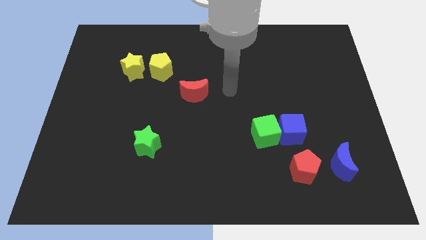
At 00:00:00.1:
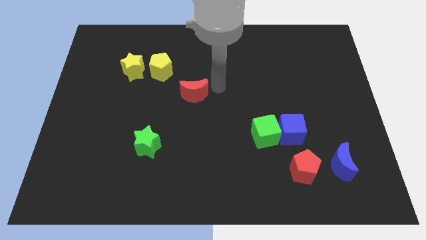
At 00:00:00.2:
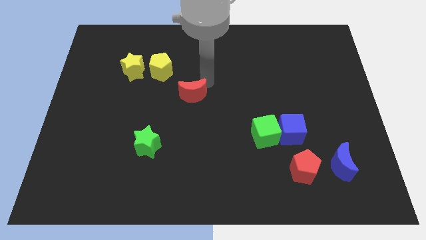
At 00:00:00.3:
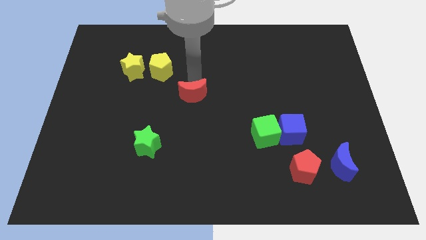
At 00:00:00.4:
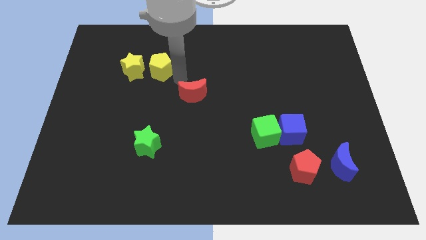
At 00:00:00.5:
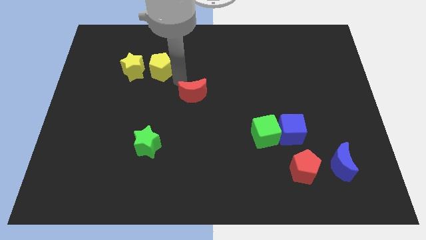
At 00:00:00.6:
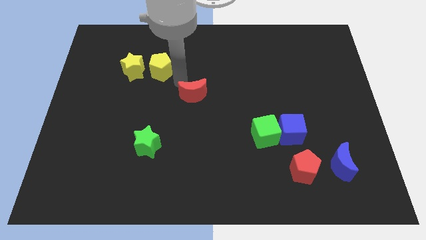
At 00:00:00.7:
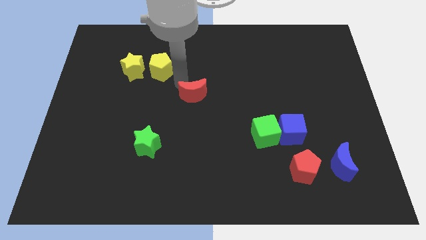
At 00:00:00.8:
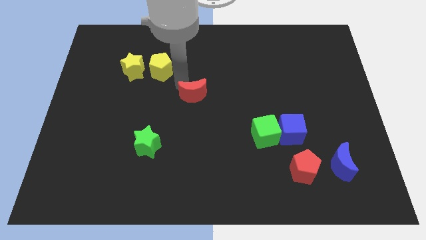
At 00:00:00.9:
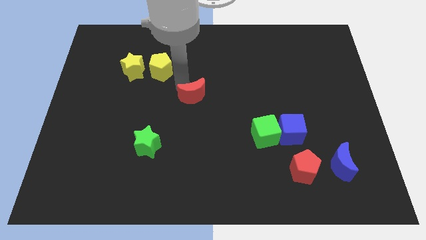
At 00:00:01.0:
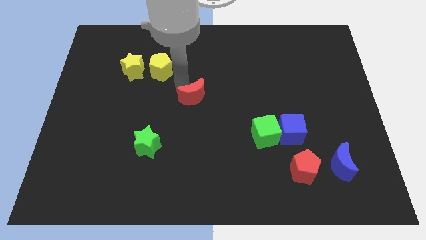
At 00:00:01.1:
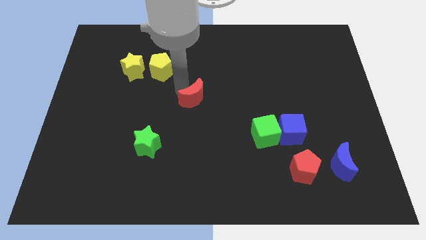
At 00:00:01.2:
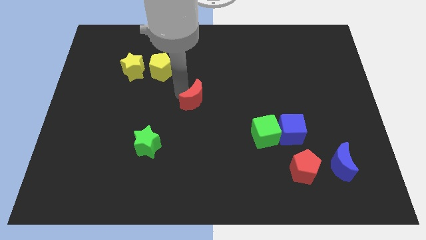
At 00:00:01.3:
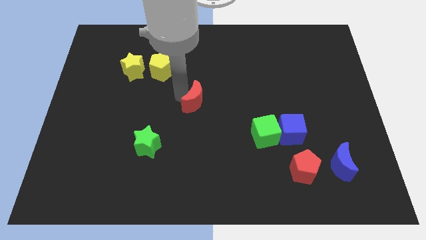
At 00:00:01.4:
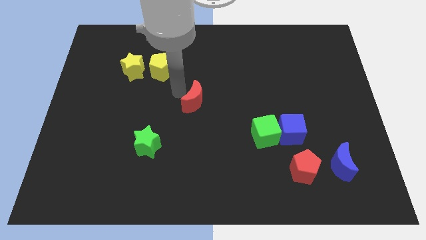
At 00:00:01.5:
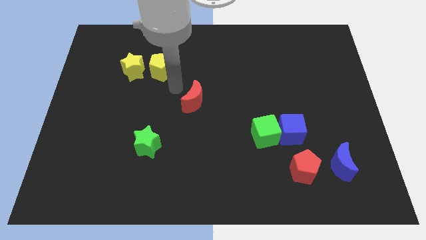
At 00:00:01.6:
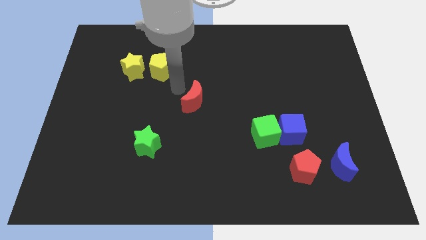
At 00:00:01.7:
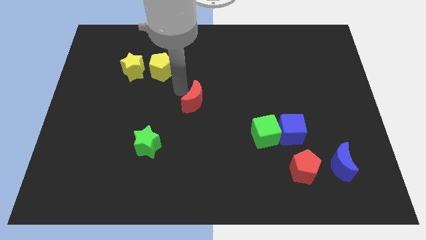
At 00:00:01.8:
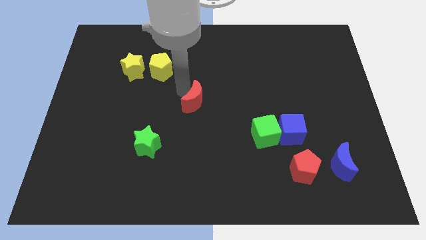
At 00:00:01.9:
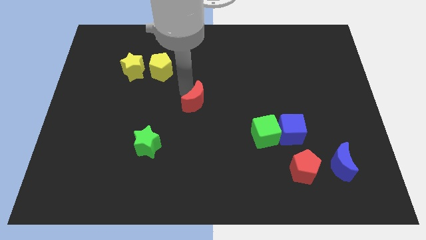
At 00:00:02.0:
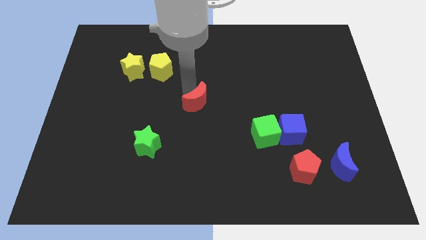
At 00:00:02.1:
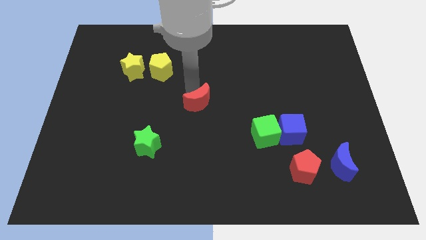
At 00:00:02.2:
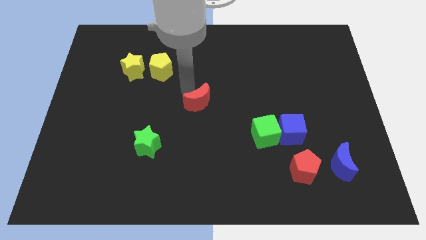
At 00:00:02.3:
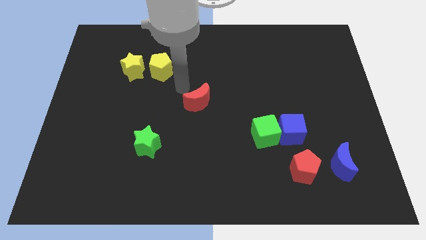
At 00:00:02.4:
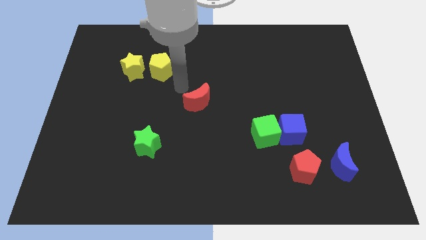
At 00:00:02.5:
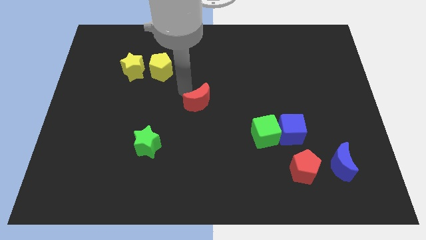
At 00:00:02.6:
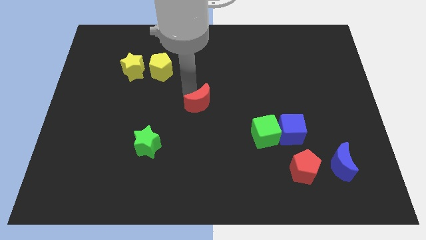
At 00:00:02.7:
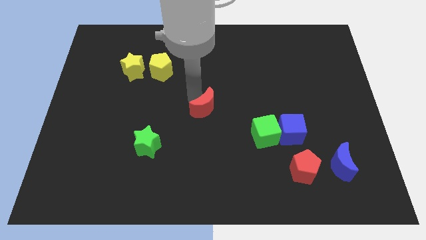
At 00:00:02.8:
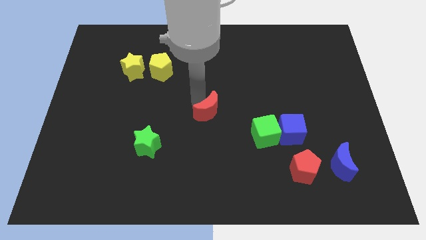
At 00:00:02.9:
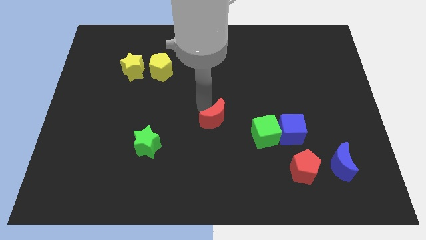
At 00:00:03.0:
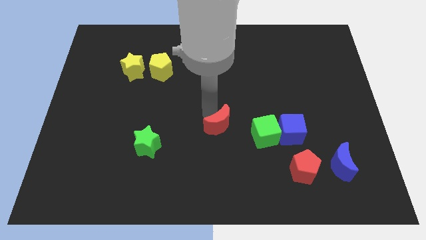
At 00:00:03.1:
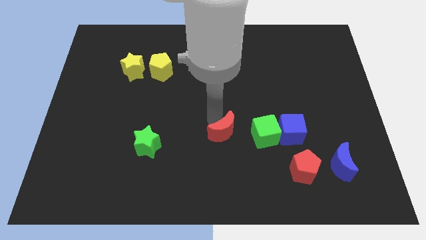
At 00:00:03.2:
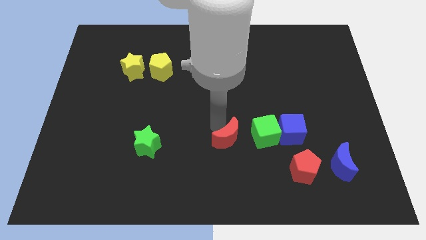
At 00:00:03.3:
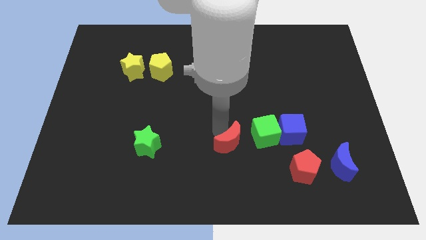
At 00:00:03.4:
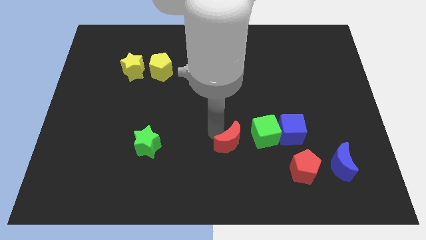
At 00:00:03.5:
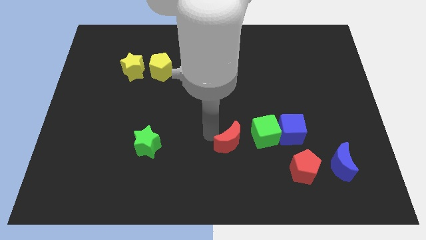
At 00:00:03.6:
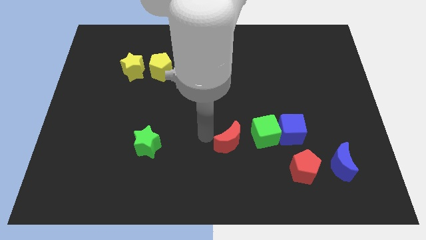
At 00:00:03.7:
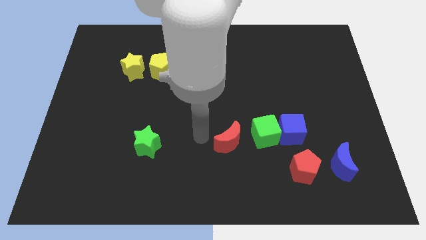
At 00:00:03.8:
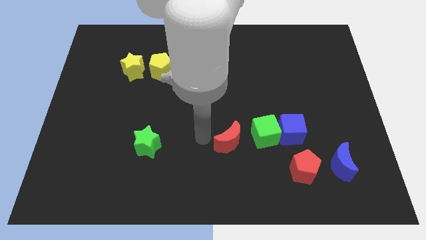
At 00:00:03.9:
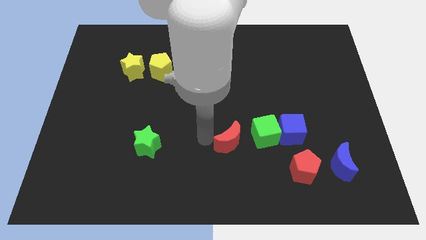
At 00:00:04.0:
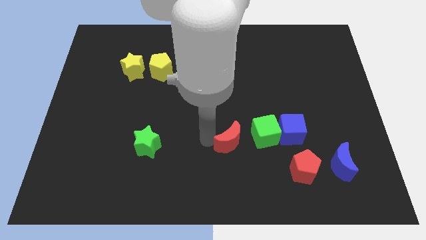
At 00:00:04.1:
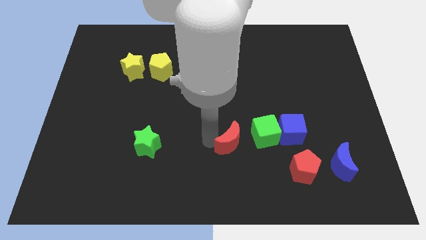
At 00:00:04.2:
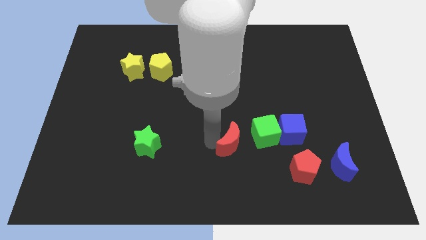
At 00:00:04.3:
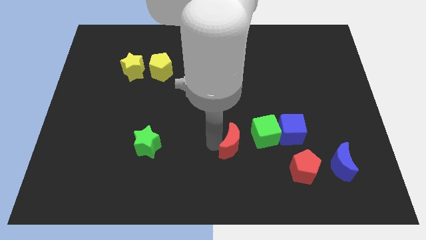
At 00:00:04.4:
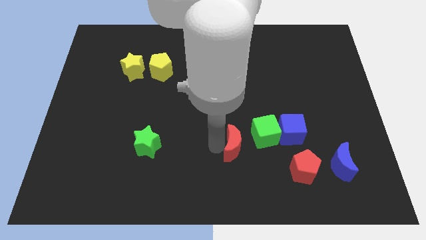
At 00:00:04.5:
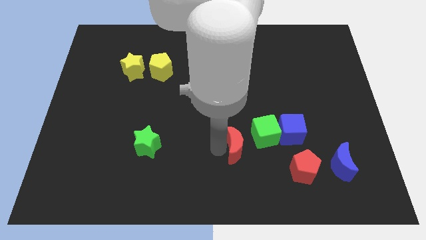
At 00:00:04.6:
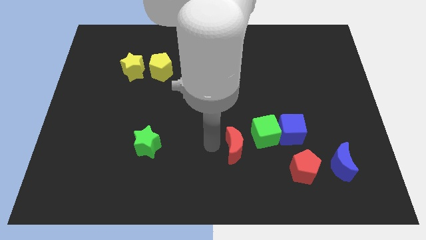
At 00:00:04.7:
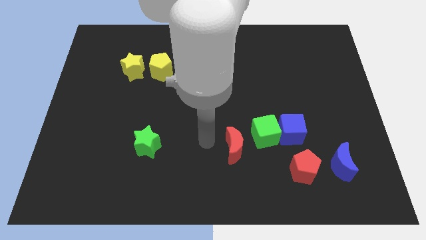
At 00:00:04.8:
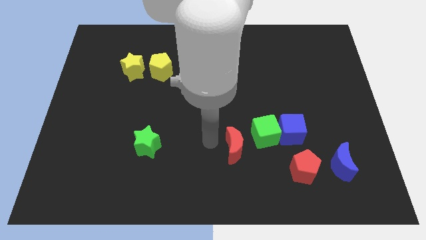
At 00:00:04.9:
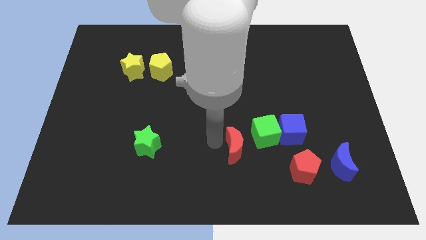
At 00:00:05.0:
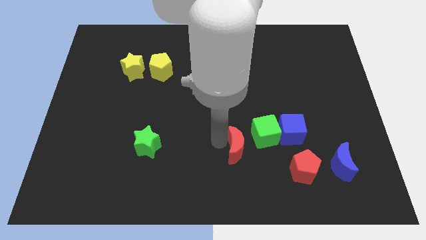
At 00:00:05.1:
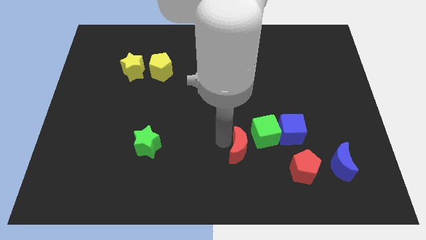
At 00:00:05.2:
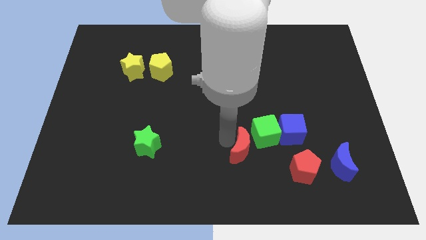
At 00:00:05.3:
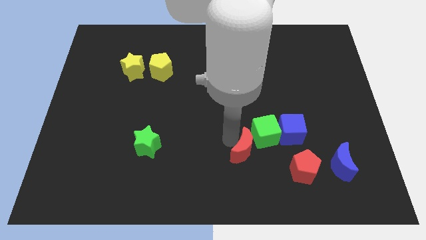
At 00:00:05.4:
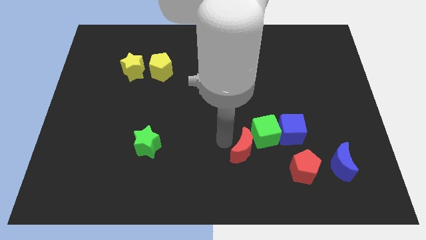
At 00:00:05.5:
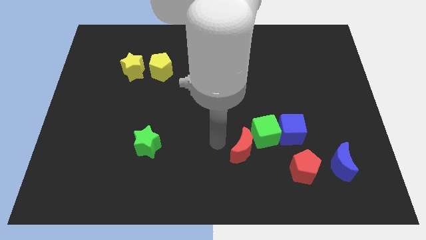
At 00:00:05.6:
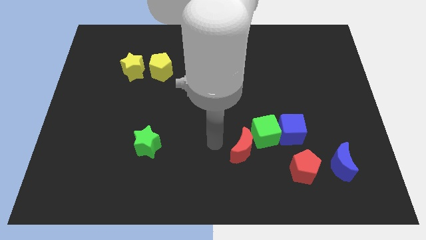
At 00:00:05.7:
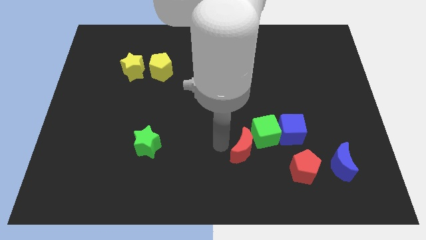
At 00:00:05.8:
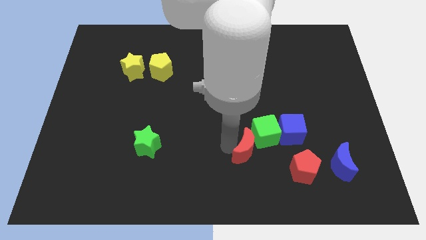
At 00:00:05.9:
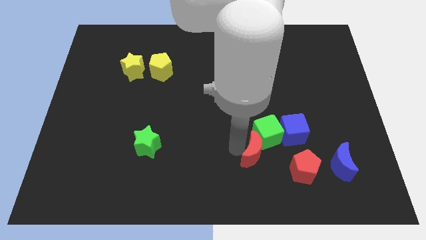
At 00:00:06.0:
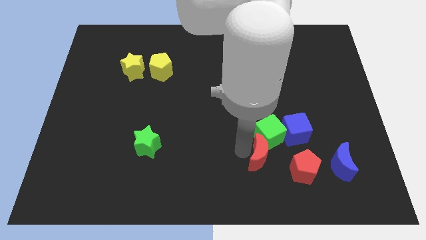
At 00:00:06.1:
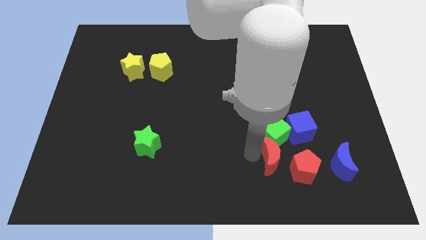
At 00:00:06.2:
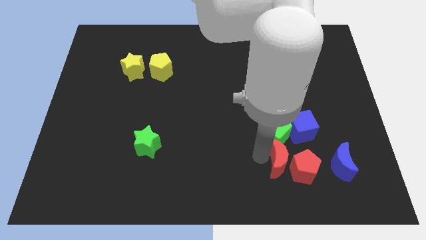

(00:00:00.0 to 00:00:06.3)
slide the red moon close to the red pentagon

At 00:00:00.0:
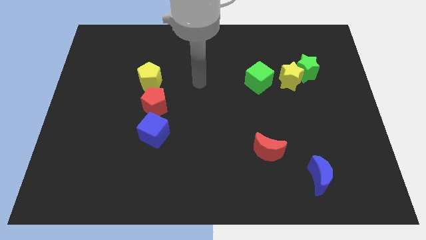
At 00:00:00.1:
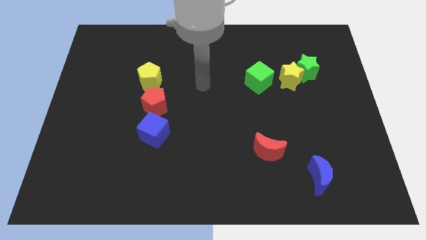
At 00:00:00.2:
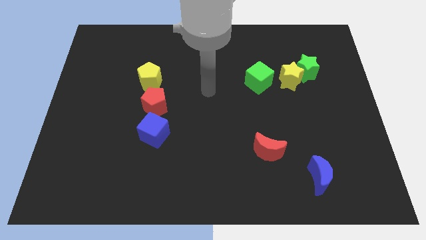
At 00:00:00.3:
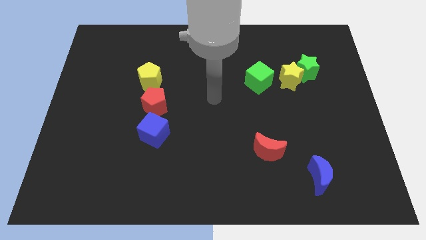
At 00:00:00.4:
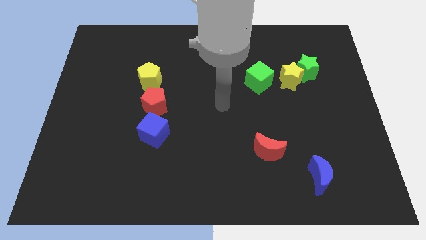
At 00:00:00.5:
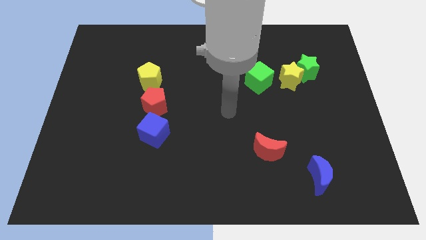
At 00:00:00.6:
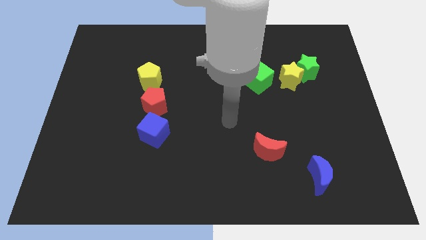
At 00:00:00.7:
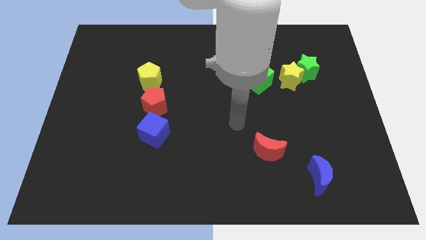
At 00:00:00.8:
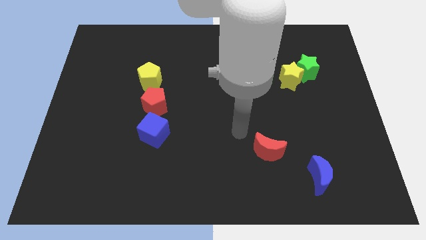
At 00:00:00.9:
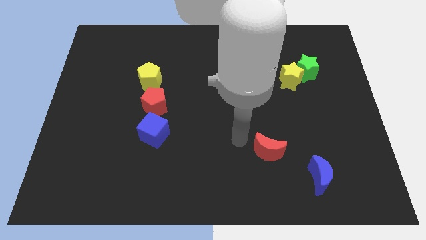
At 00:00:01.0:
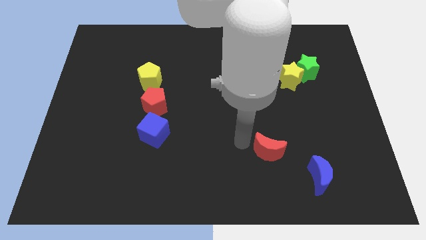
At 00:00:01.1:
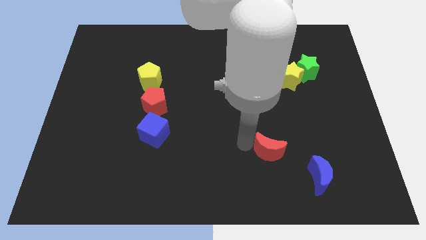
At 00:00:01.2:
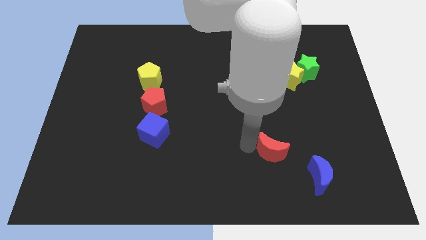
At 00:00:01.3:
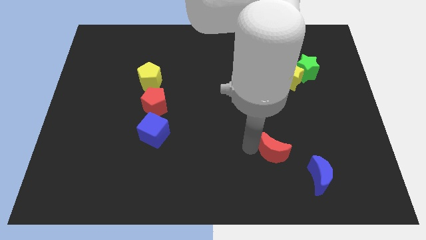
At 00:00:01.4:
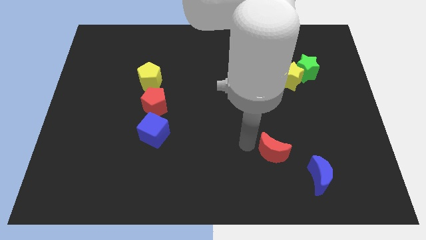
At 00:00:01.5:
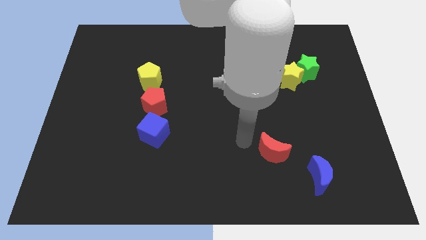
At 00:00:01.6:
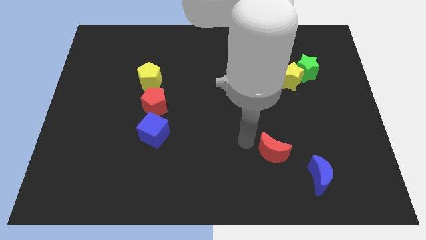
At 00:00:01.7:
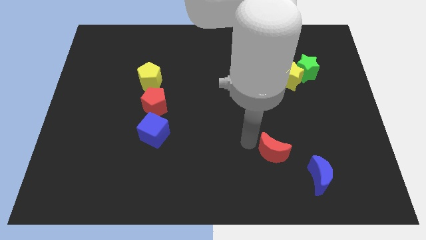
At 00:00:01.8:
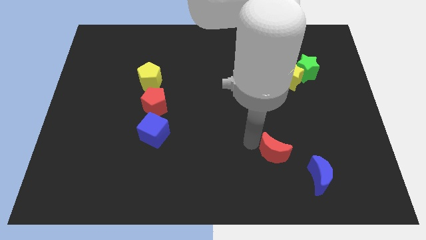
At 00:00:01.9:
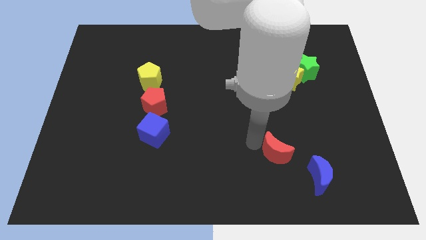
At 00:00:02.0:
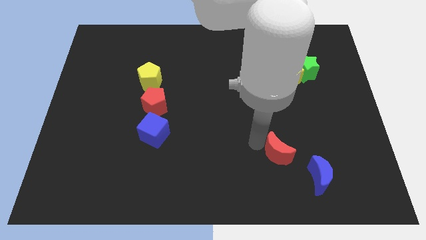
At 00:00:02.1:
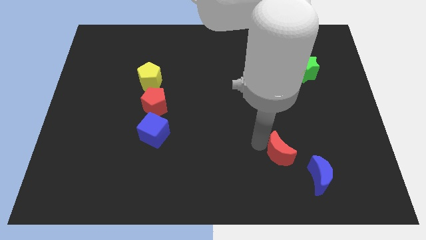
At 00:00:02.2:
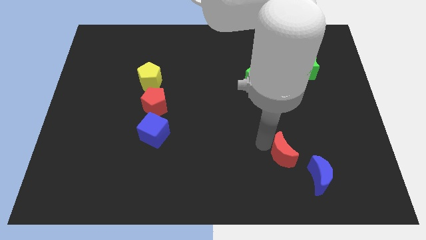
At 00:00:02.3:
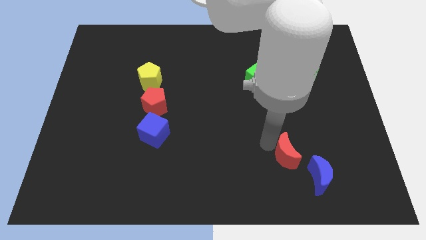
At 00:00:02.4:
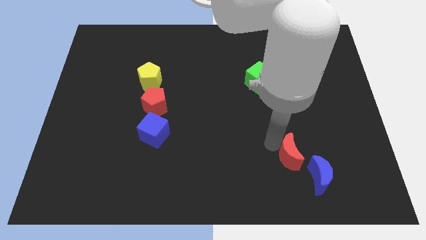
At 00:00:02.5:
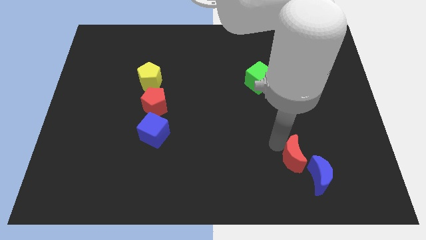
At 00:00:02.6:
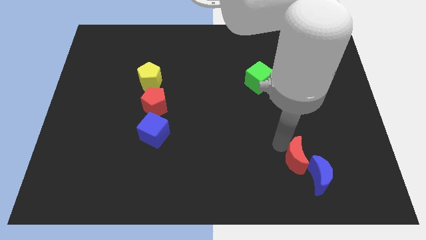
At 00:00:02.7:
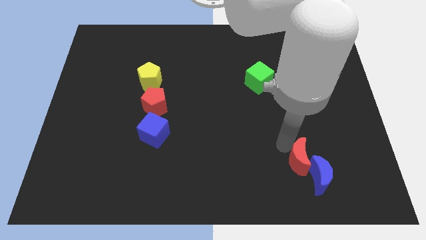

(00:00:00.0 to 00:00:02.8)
put the red moon close to the blue moon
